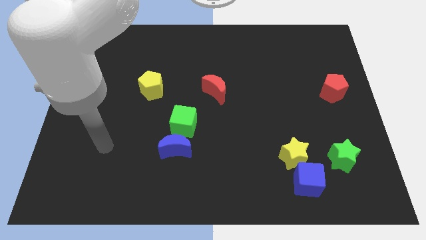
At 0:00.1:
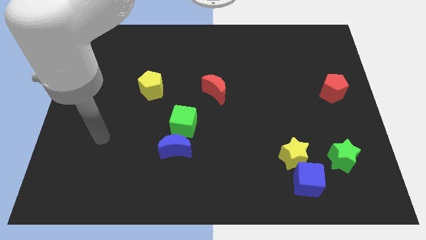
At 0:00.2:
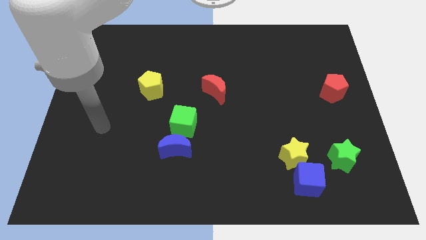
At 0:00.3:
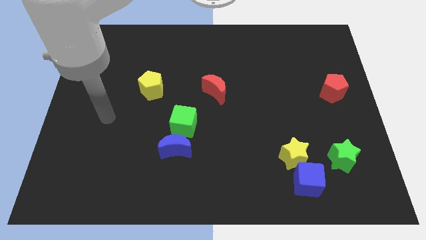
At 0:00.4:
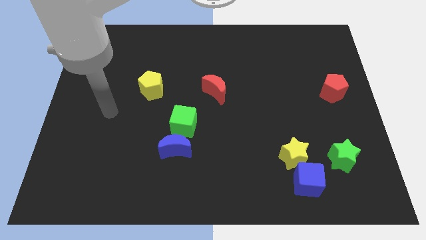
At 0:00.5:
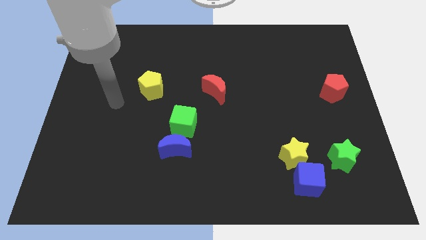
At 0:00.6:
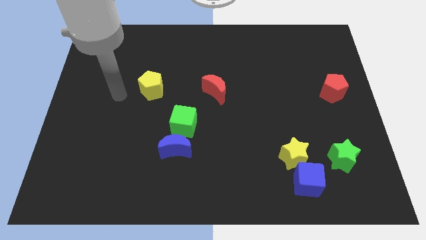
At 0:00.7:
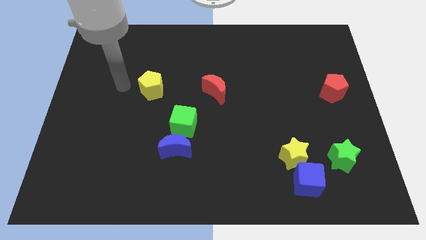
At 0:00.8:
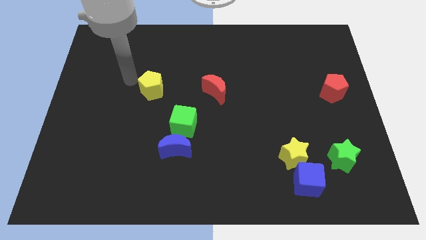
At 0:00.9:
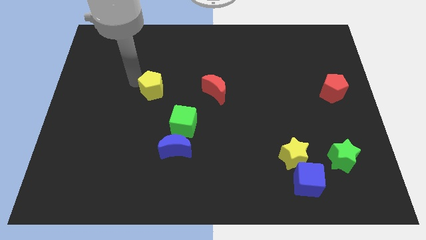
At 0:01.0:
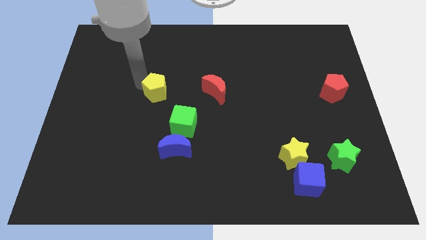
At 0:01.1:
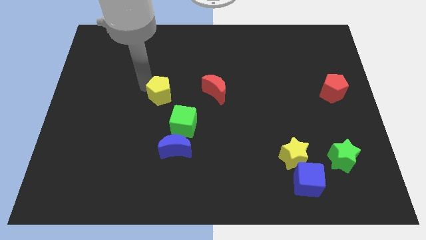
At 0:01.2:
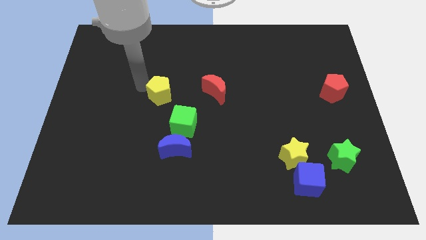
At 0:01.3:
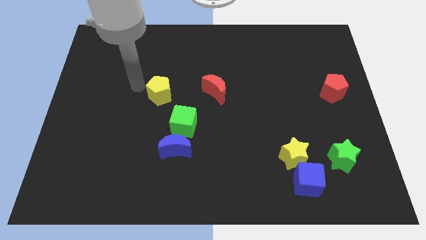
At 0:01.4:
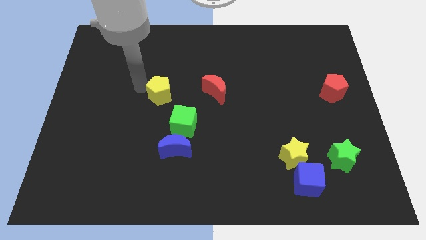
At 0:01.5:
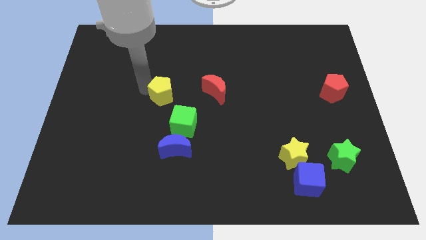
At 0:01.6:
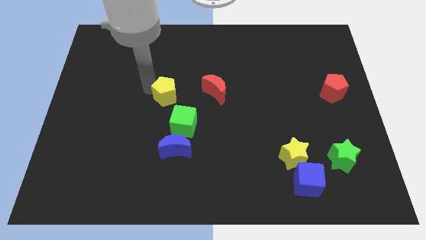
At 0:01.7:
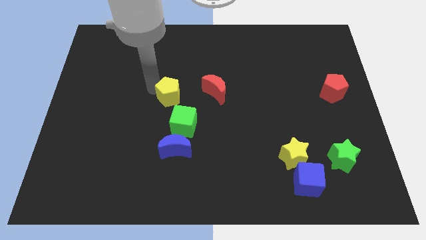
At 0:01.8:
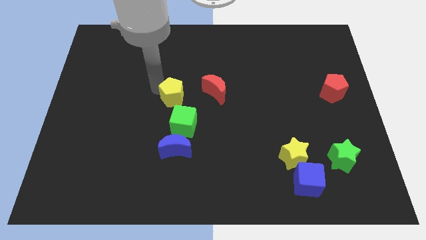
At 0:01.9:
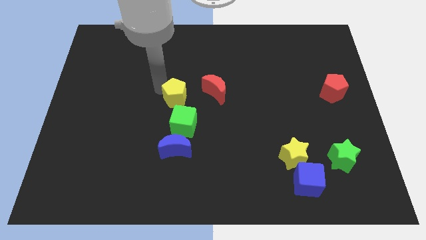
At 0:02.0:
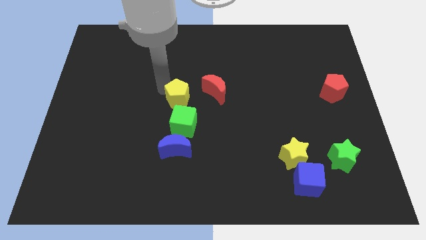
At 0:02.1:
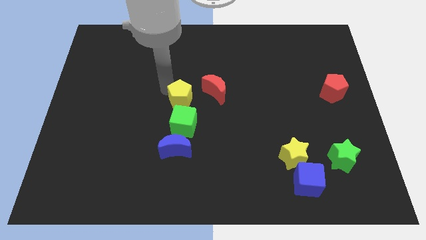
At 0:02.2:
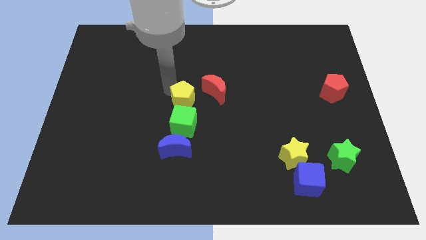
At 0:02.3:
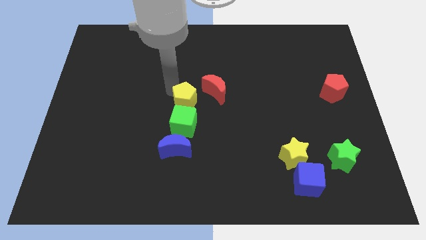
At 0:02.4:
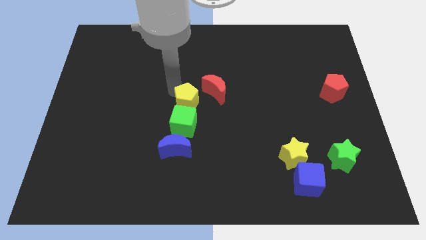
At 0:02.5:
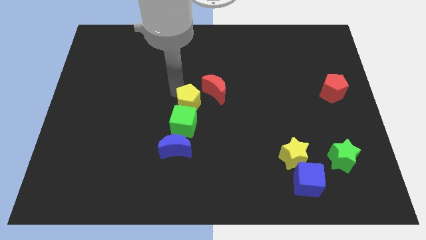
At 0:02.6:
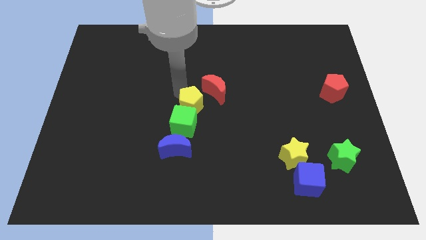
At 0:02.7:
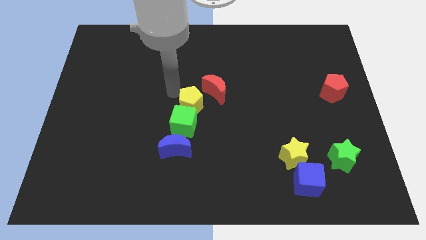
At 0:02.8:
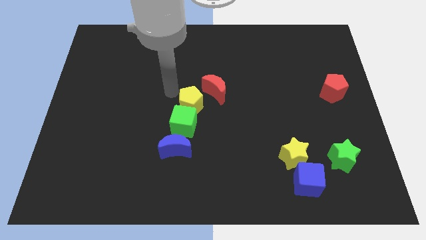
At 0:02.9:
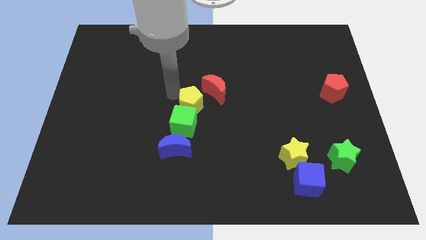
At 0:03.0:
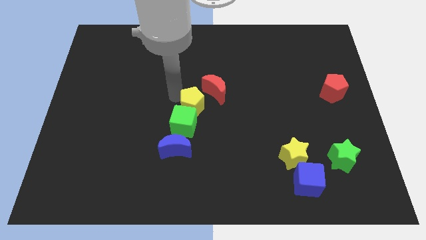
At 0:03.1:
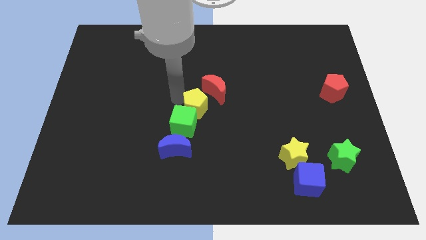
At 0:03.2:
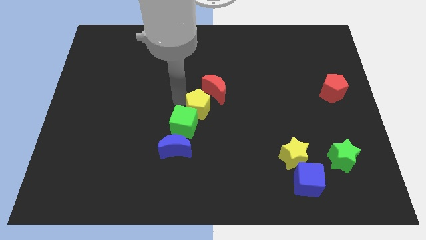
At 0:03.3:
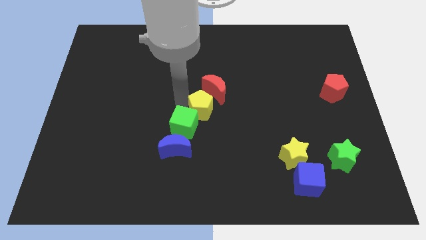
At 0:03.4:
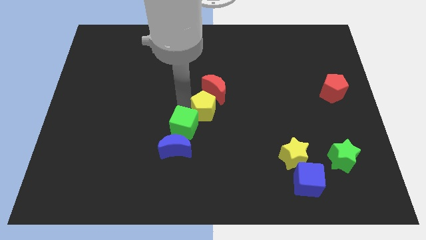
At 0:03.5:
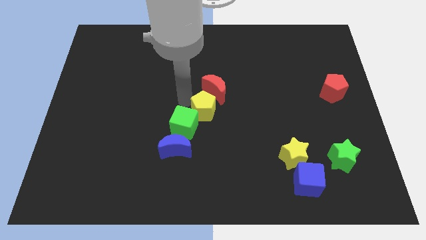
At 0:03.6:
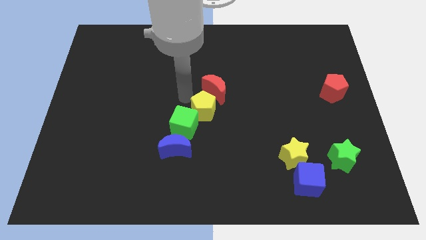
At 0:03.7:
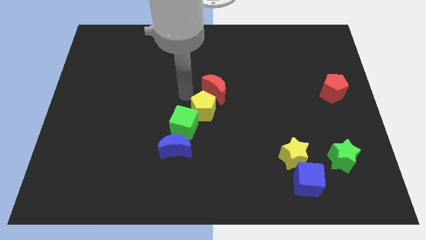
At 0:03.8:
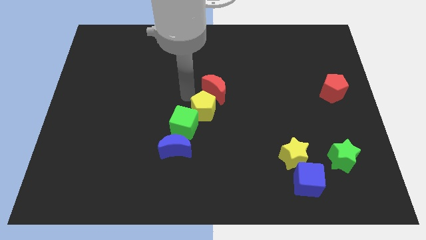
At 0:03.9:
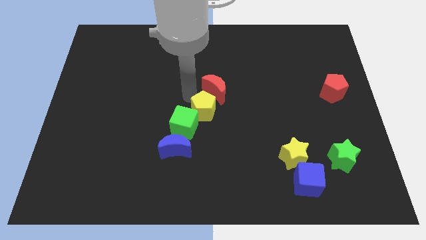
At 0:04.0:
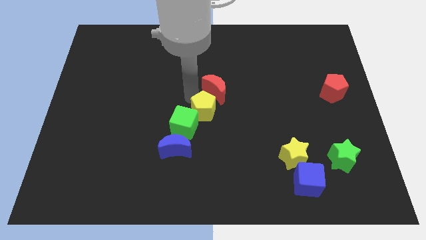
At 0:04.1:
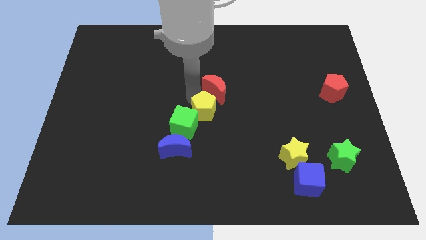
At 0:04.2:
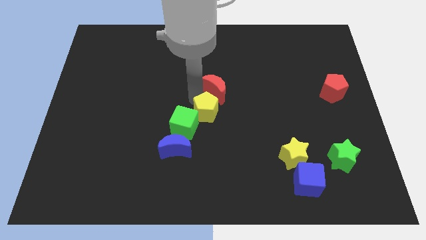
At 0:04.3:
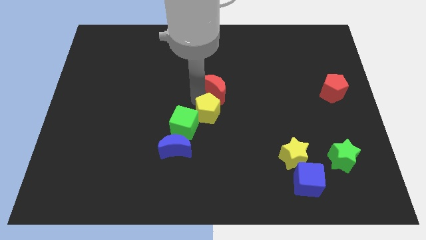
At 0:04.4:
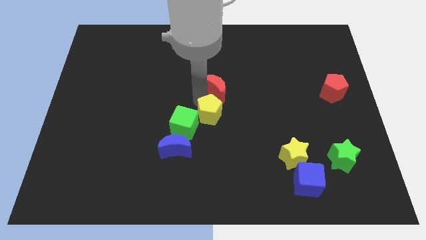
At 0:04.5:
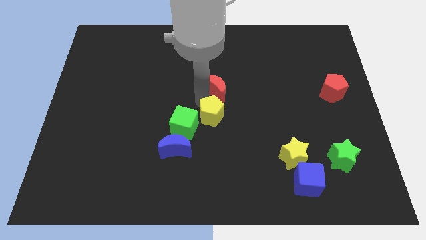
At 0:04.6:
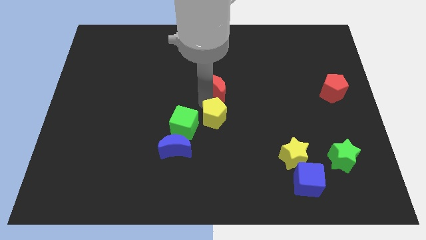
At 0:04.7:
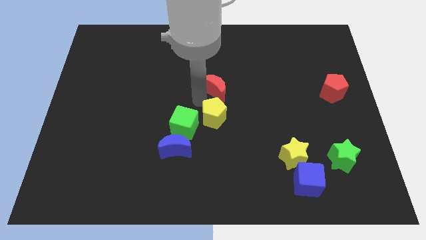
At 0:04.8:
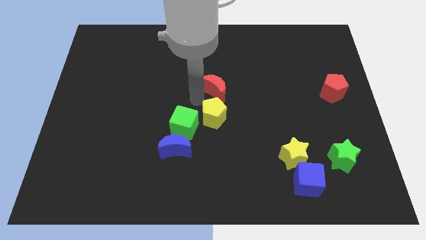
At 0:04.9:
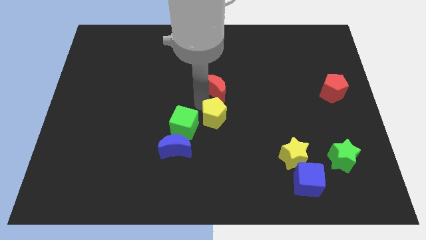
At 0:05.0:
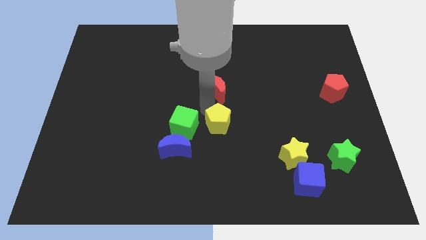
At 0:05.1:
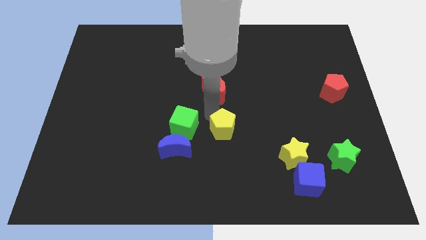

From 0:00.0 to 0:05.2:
push the yellow pentagon diagonally down and right

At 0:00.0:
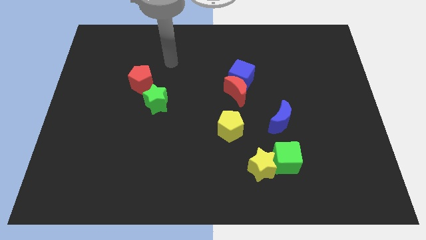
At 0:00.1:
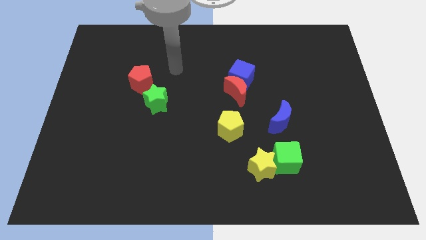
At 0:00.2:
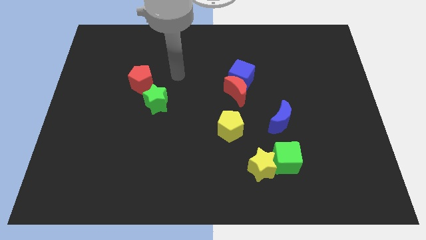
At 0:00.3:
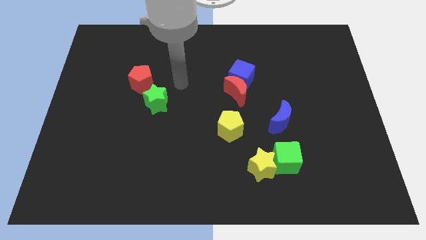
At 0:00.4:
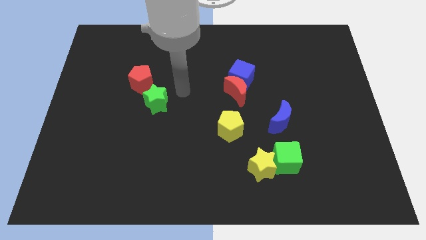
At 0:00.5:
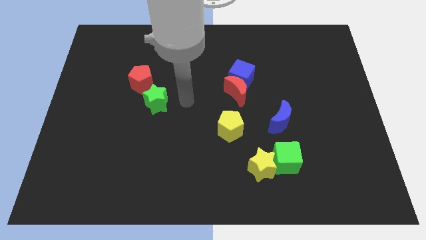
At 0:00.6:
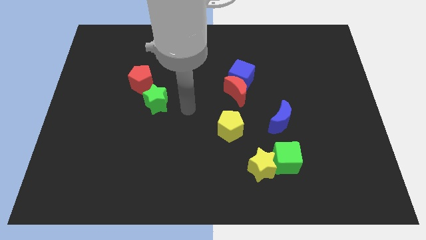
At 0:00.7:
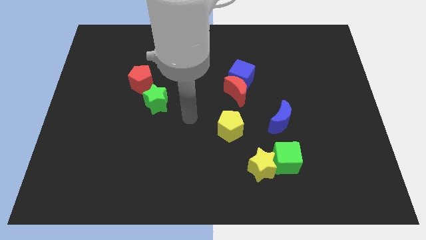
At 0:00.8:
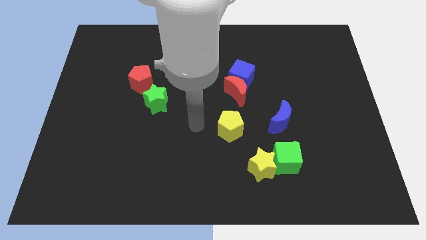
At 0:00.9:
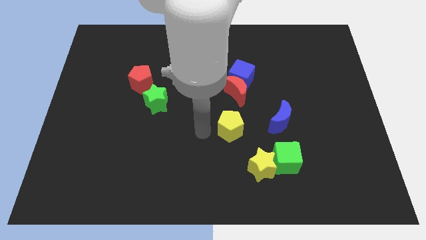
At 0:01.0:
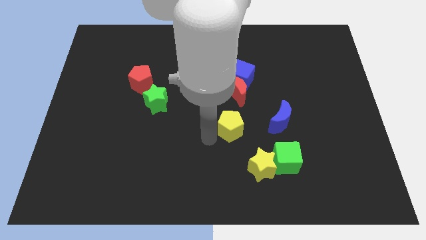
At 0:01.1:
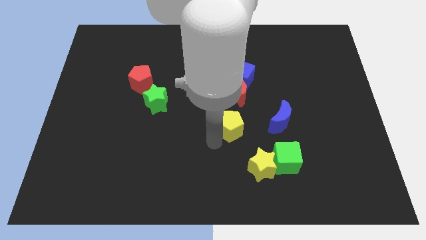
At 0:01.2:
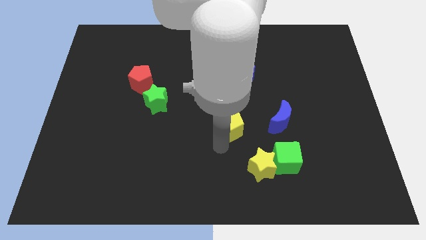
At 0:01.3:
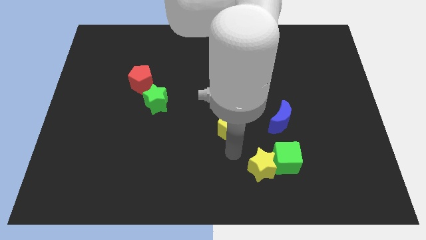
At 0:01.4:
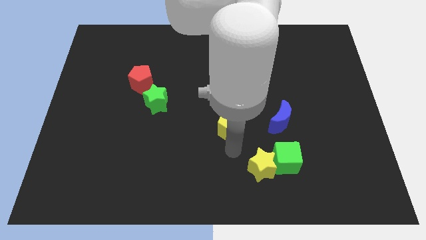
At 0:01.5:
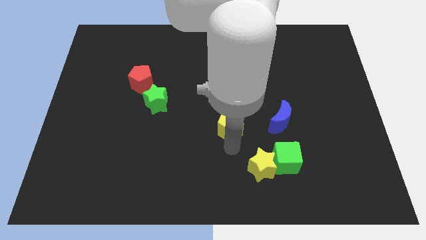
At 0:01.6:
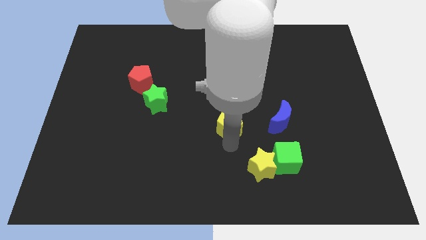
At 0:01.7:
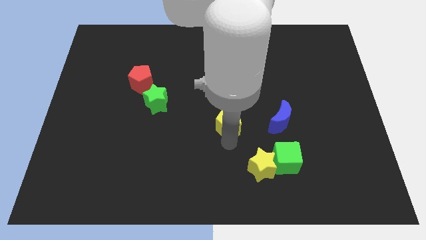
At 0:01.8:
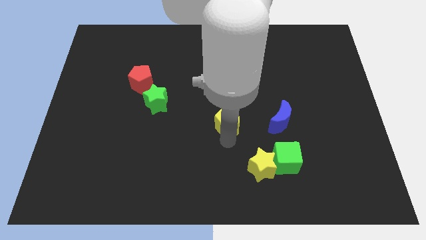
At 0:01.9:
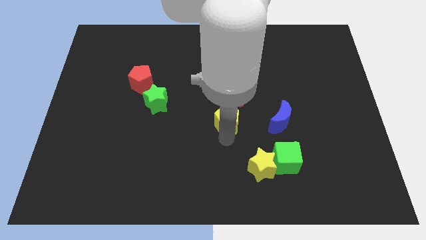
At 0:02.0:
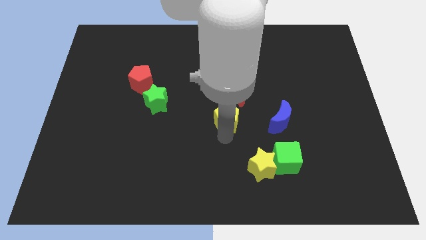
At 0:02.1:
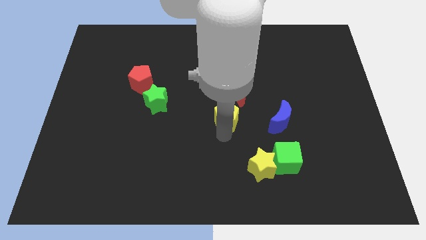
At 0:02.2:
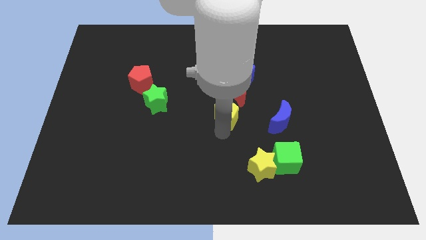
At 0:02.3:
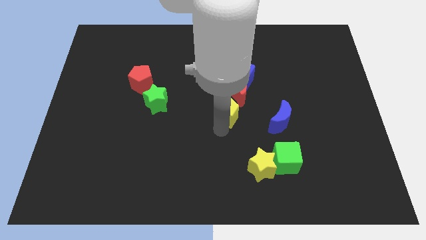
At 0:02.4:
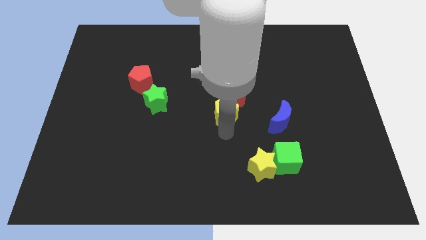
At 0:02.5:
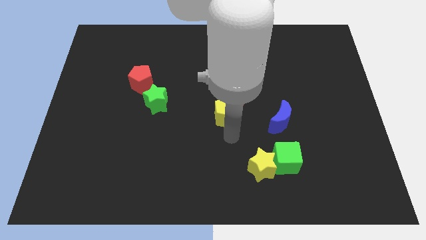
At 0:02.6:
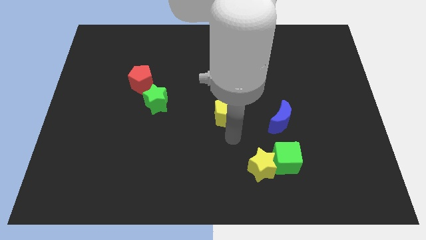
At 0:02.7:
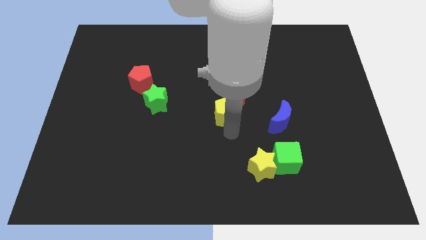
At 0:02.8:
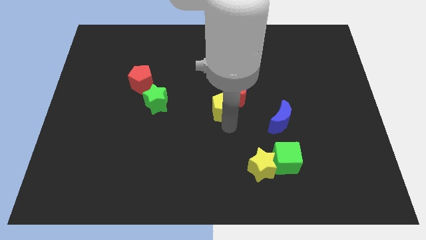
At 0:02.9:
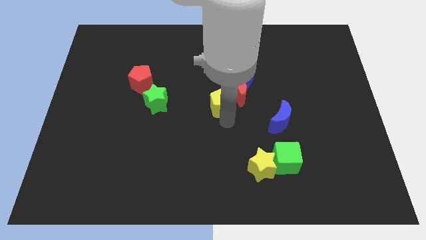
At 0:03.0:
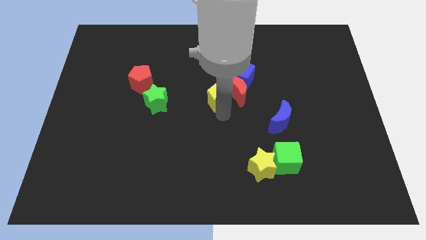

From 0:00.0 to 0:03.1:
slightly slide the yellow pentagon up
